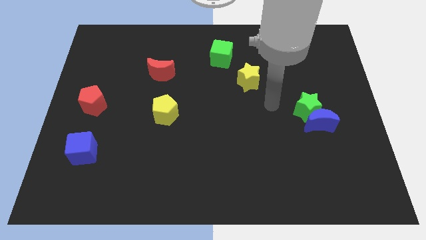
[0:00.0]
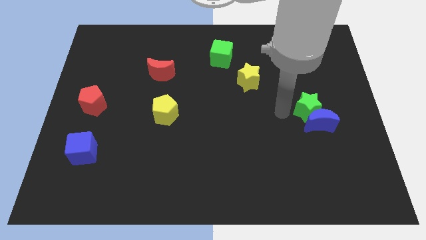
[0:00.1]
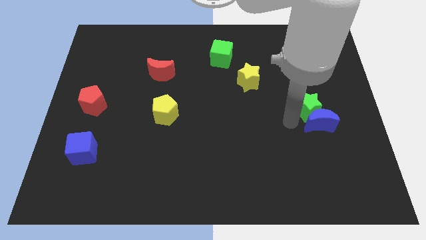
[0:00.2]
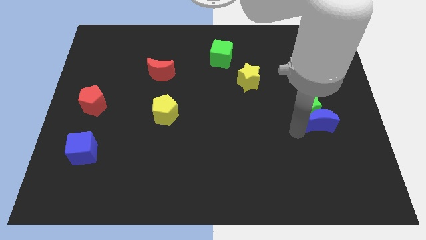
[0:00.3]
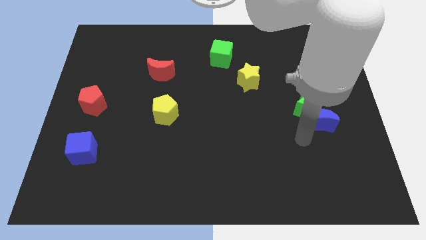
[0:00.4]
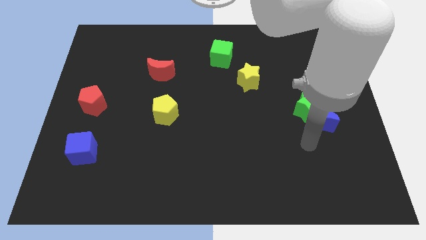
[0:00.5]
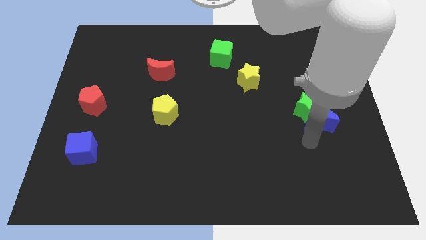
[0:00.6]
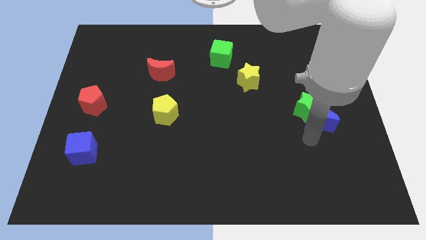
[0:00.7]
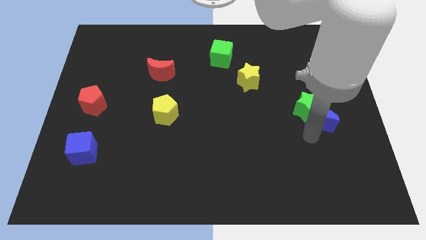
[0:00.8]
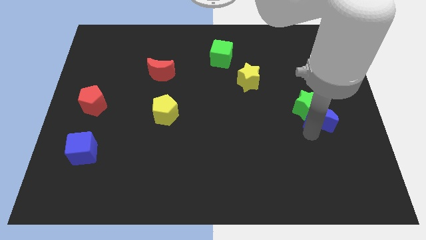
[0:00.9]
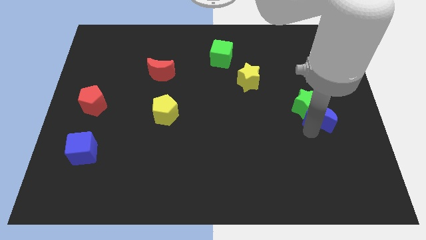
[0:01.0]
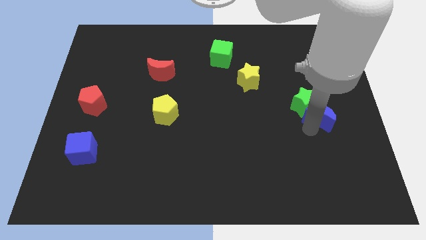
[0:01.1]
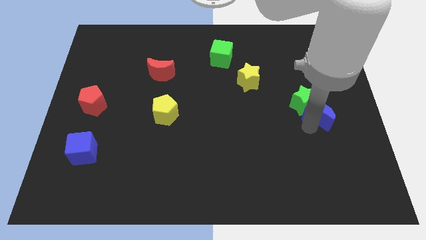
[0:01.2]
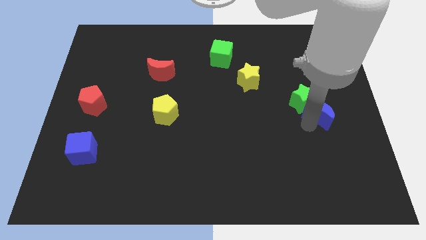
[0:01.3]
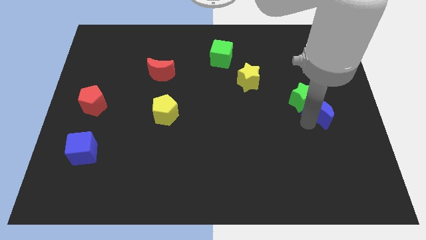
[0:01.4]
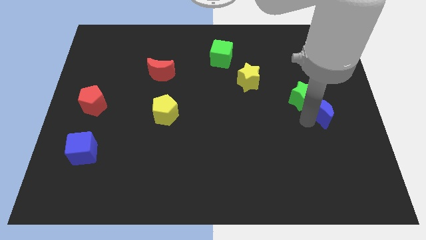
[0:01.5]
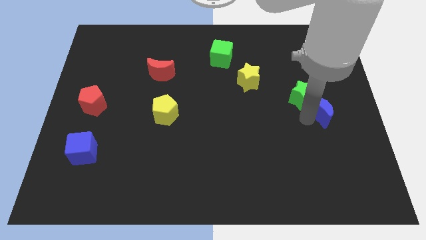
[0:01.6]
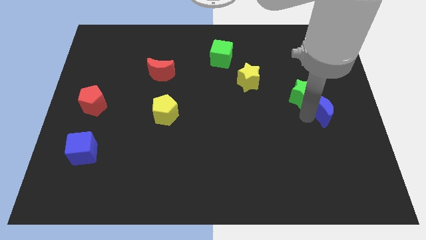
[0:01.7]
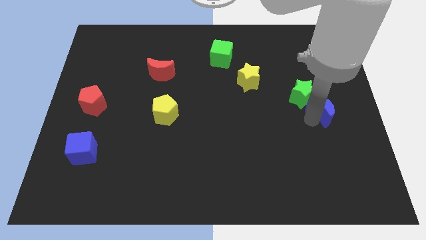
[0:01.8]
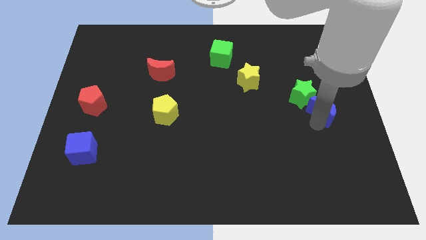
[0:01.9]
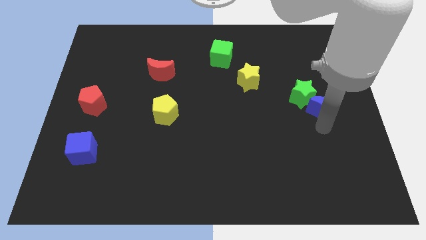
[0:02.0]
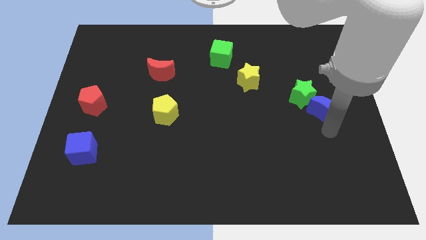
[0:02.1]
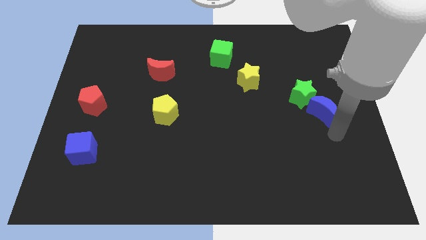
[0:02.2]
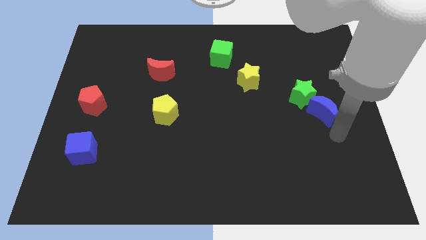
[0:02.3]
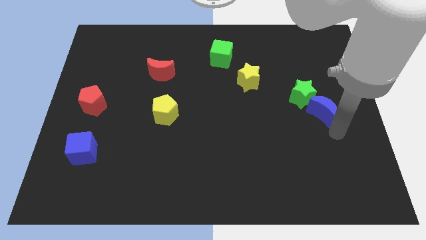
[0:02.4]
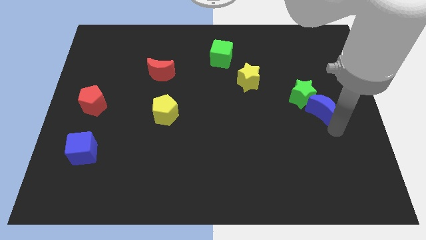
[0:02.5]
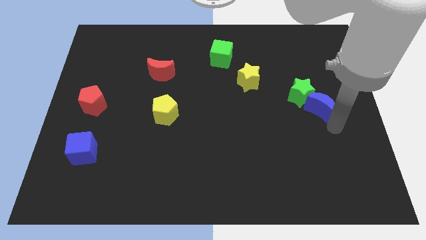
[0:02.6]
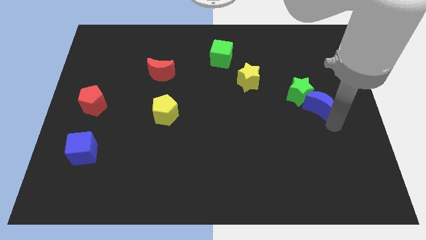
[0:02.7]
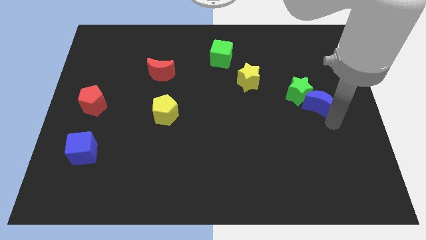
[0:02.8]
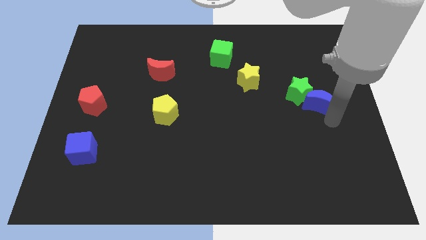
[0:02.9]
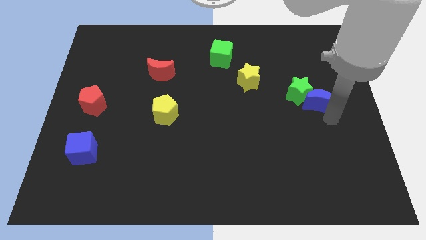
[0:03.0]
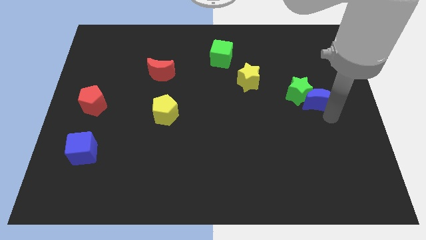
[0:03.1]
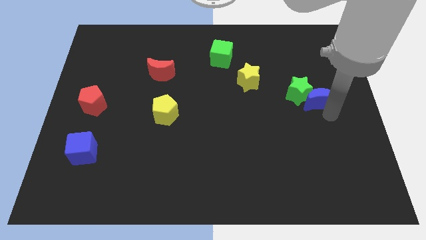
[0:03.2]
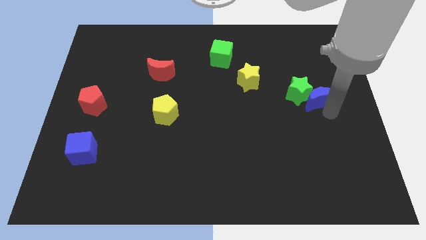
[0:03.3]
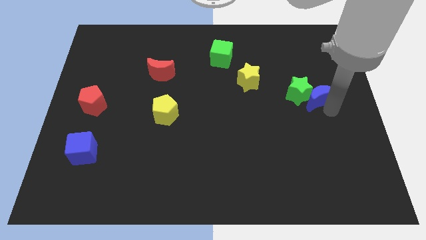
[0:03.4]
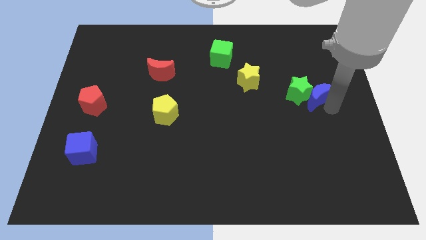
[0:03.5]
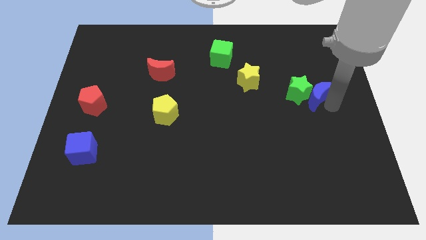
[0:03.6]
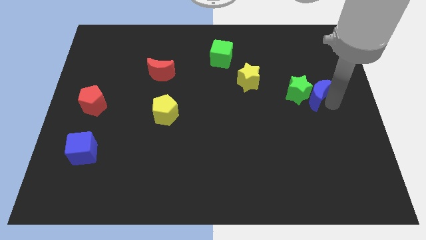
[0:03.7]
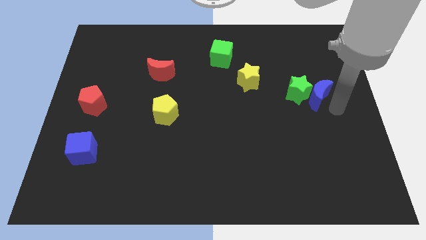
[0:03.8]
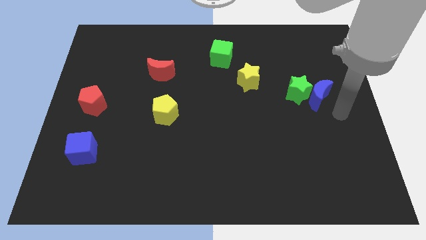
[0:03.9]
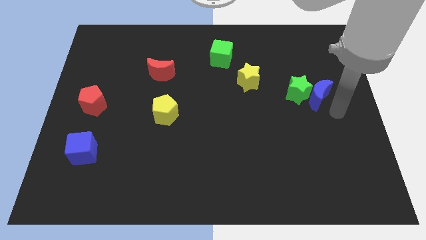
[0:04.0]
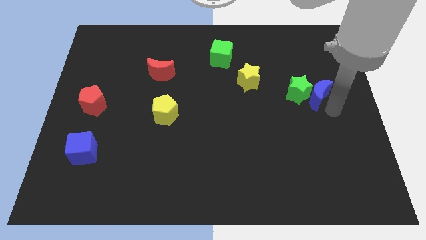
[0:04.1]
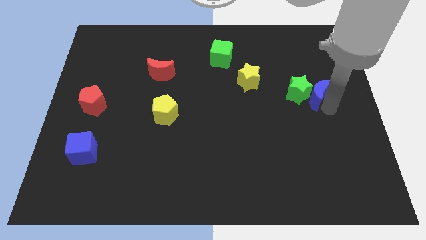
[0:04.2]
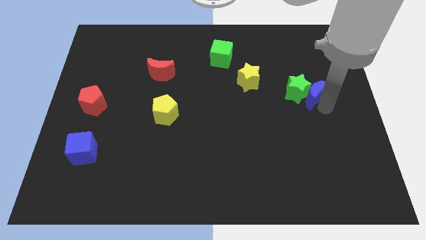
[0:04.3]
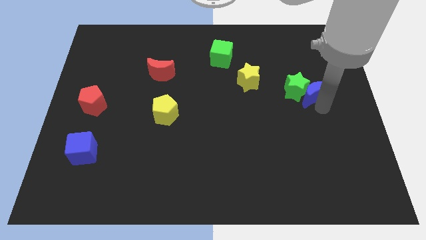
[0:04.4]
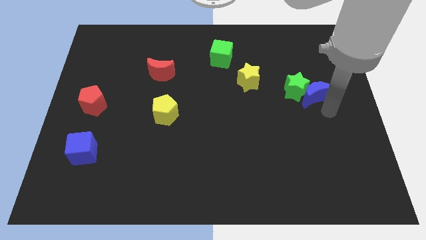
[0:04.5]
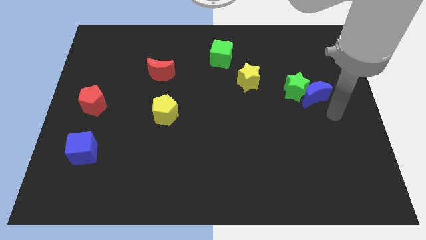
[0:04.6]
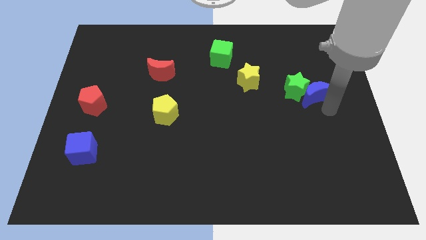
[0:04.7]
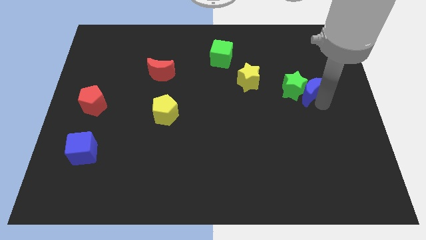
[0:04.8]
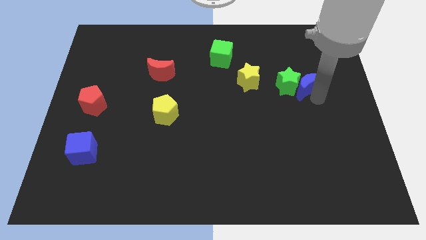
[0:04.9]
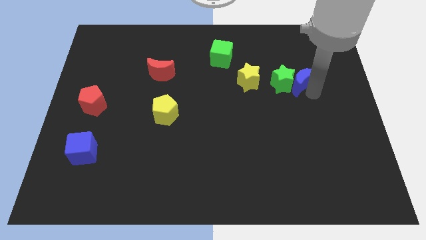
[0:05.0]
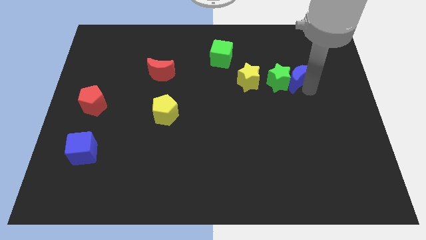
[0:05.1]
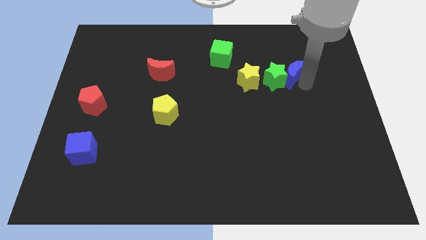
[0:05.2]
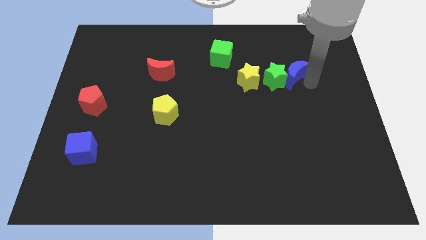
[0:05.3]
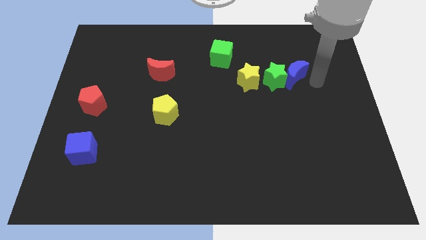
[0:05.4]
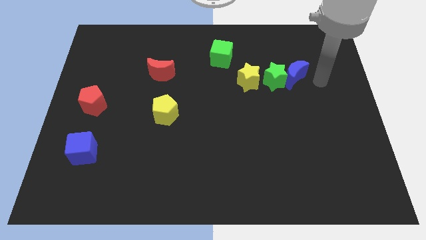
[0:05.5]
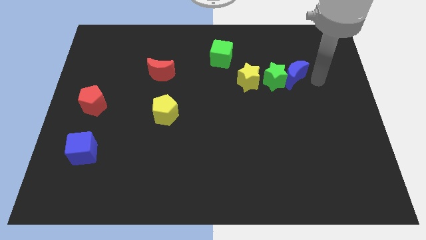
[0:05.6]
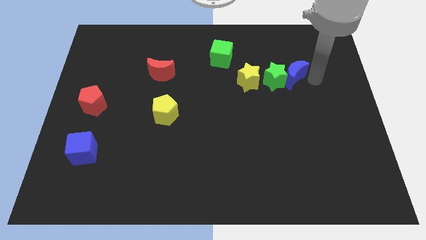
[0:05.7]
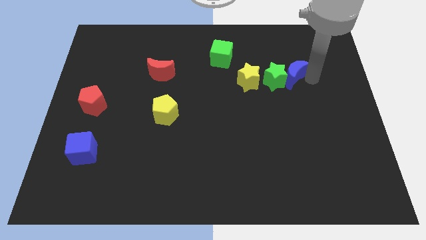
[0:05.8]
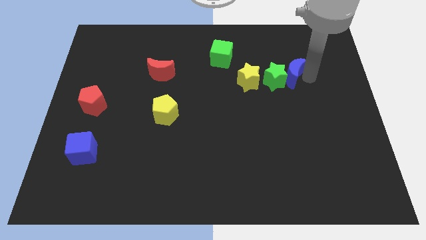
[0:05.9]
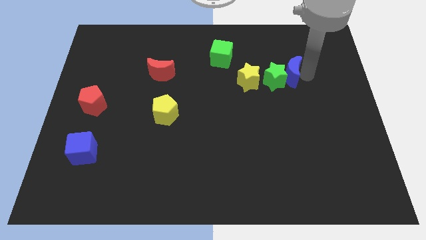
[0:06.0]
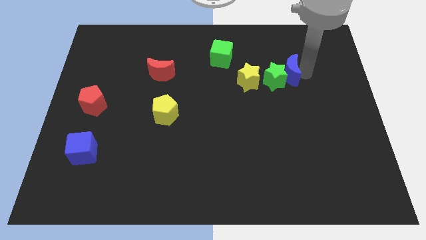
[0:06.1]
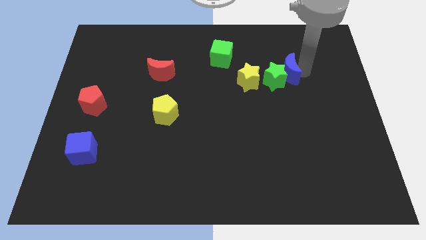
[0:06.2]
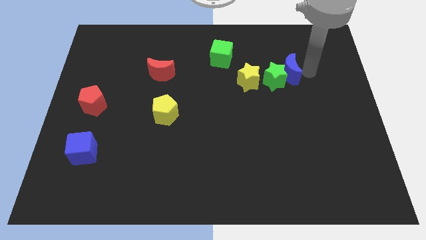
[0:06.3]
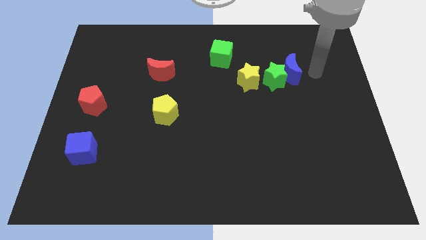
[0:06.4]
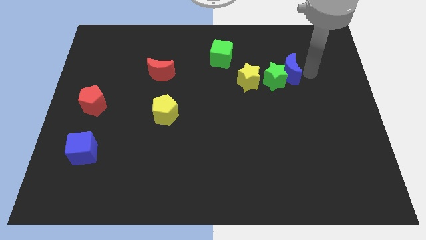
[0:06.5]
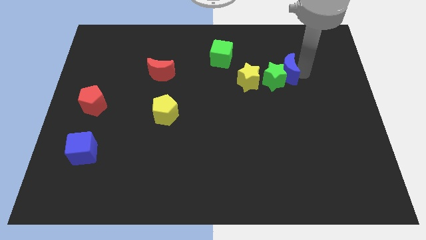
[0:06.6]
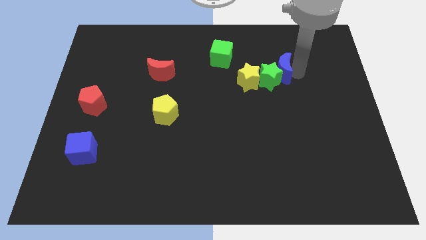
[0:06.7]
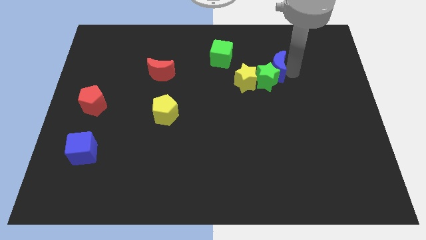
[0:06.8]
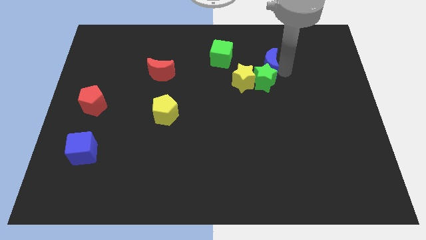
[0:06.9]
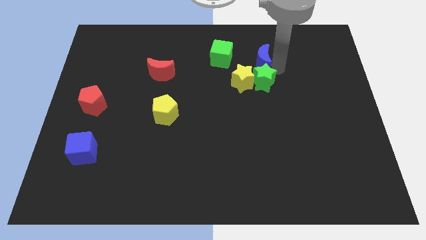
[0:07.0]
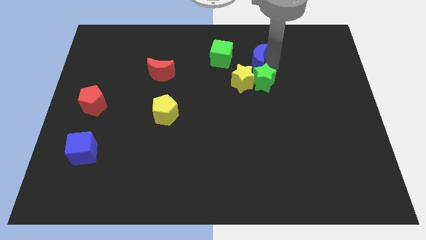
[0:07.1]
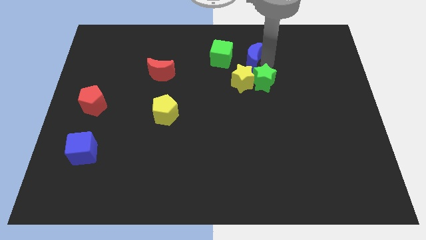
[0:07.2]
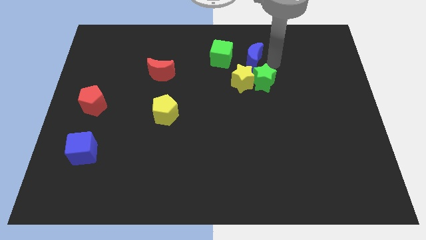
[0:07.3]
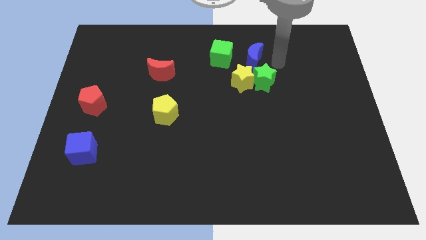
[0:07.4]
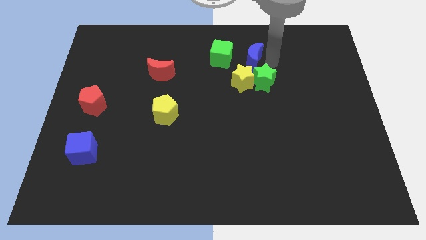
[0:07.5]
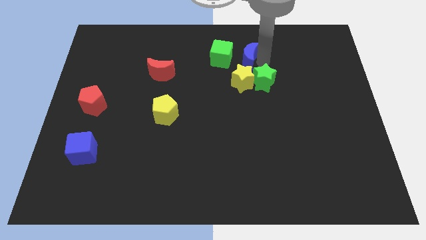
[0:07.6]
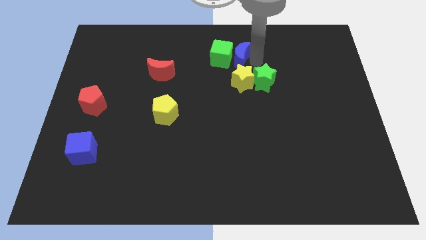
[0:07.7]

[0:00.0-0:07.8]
push the blue moon close to the green cube
